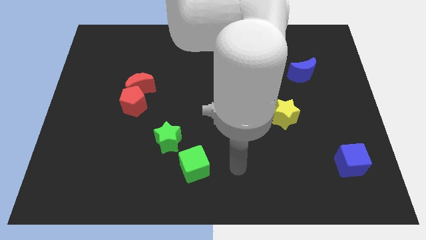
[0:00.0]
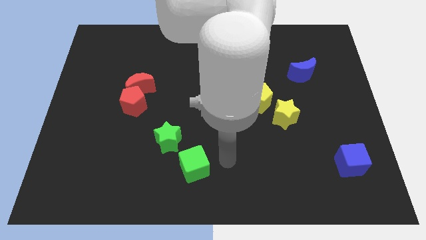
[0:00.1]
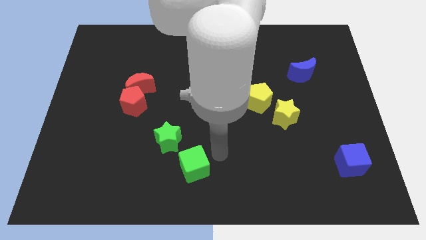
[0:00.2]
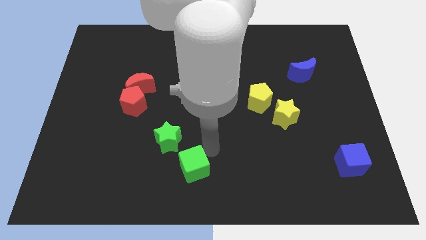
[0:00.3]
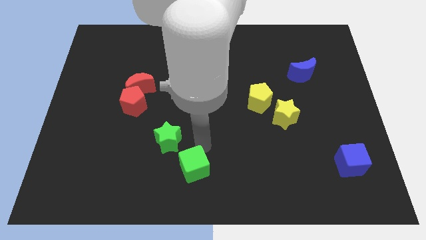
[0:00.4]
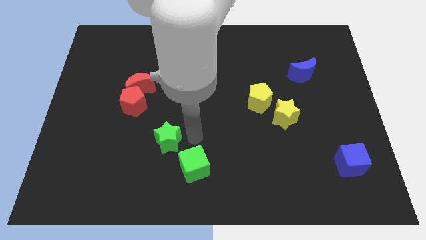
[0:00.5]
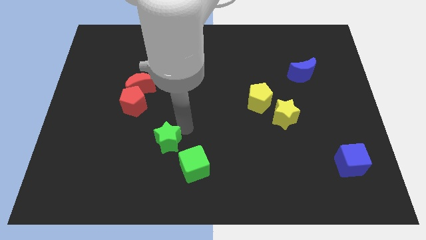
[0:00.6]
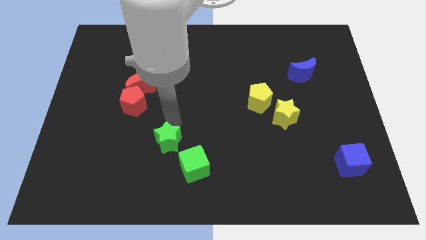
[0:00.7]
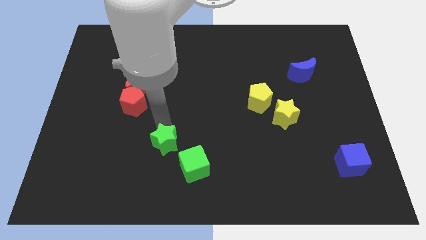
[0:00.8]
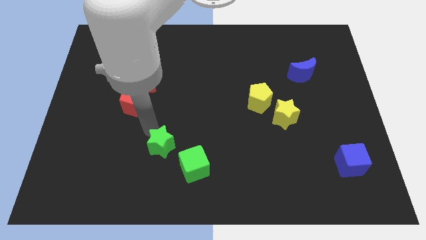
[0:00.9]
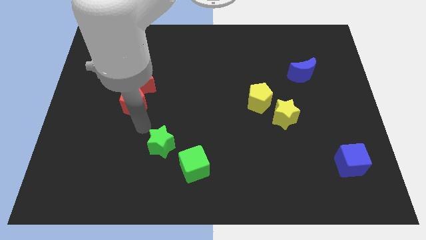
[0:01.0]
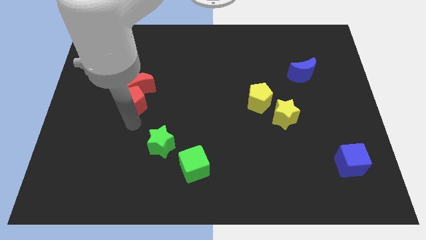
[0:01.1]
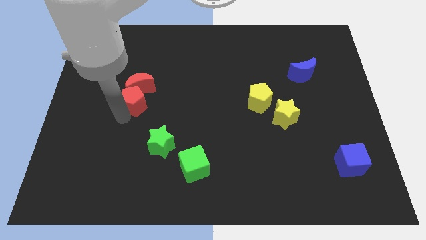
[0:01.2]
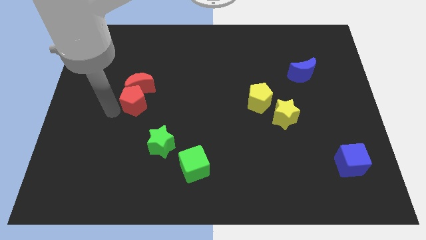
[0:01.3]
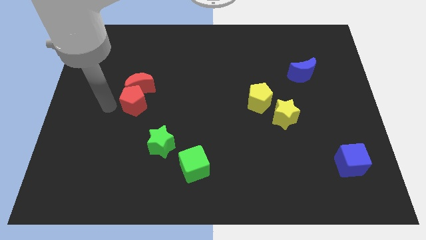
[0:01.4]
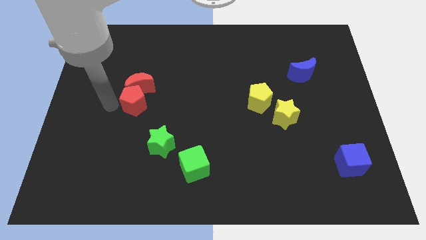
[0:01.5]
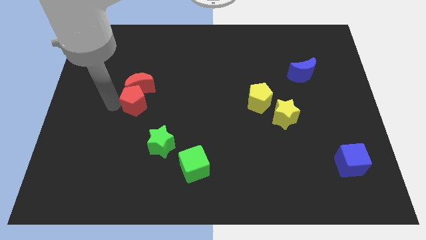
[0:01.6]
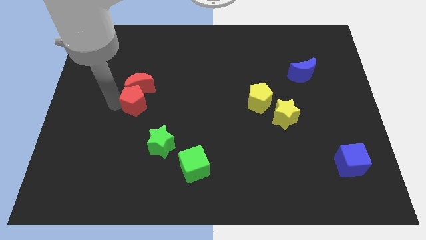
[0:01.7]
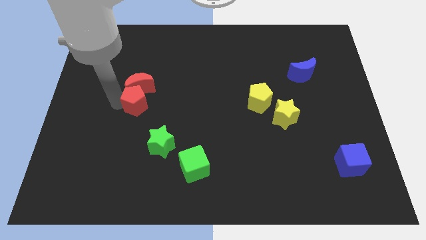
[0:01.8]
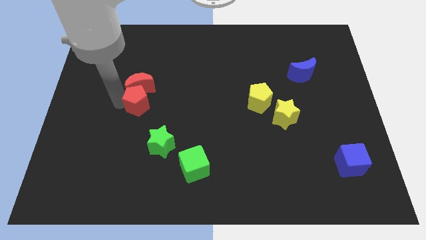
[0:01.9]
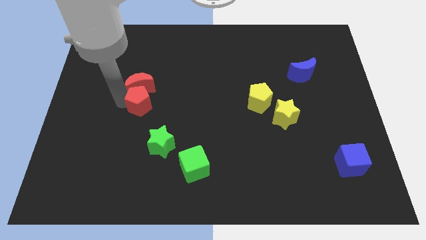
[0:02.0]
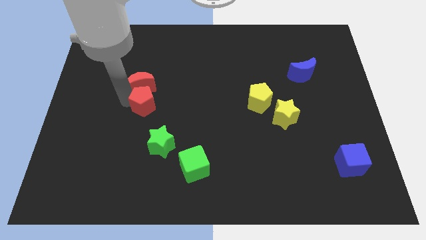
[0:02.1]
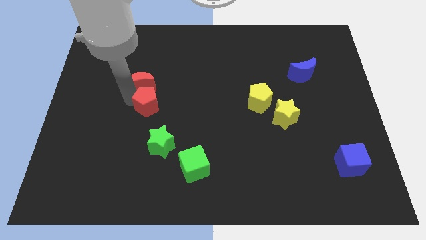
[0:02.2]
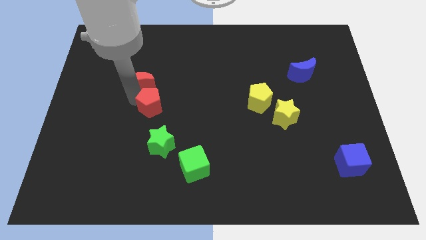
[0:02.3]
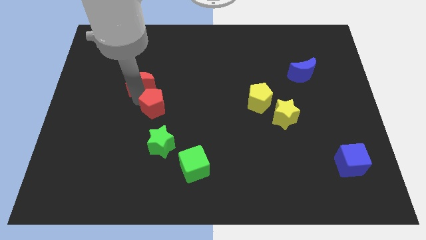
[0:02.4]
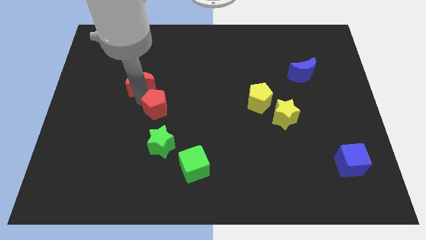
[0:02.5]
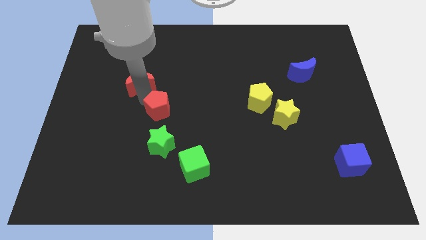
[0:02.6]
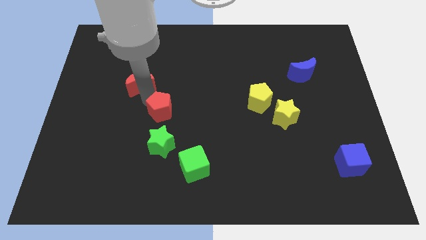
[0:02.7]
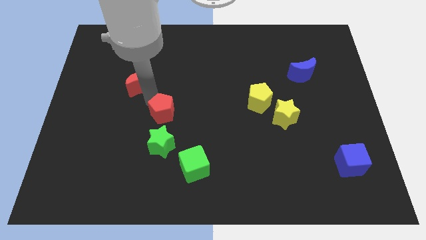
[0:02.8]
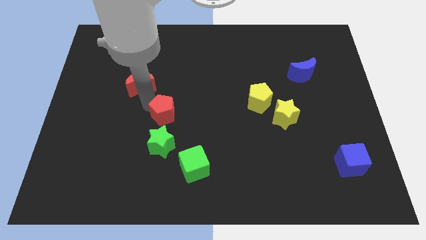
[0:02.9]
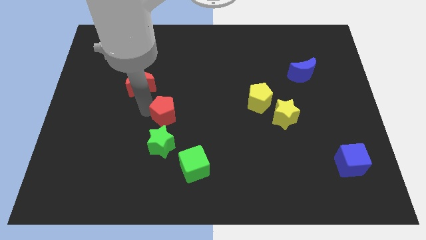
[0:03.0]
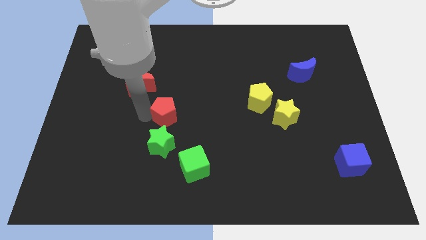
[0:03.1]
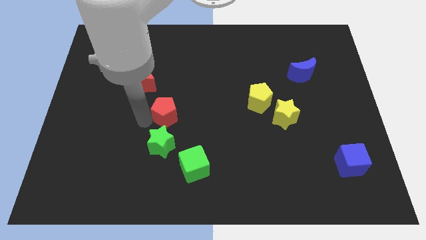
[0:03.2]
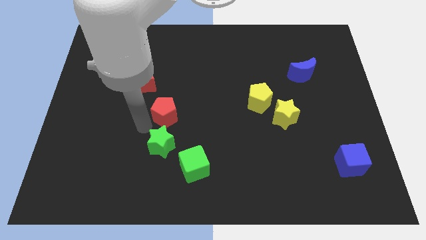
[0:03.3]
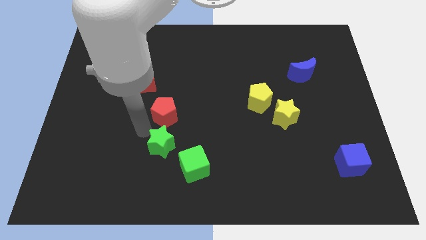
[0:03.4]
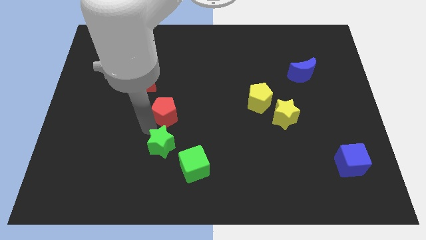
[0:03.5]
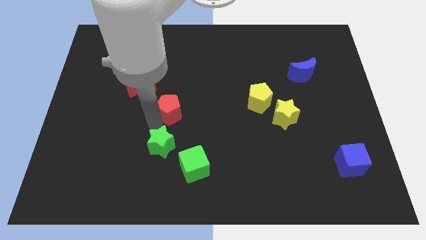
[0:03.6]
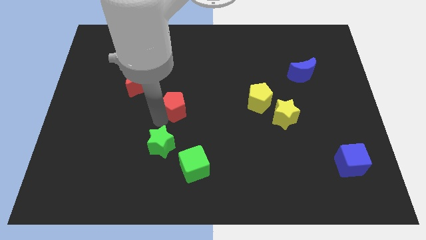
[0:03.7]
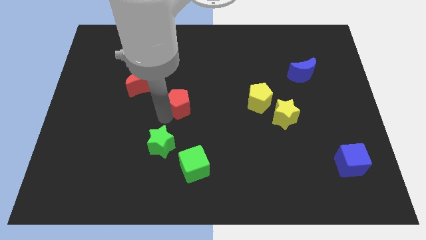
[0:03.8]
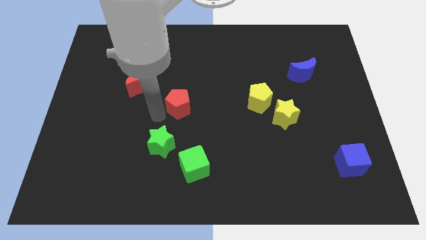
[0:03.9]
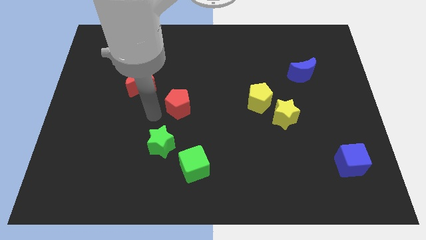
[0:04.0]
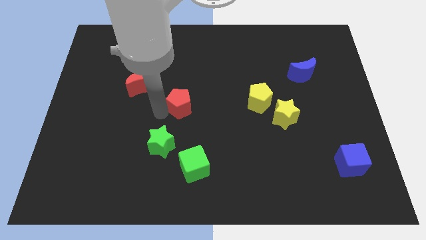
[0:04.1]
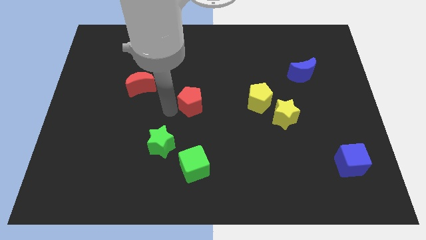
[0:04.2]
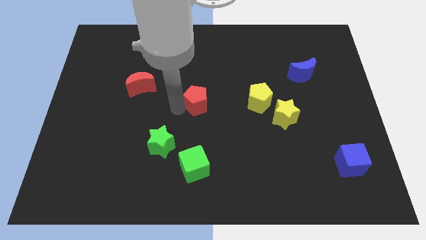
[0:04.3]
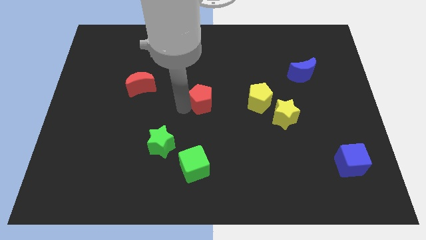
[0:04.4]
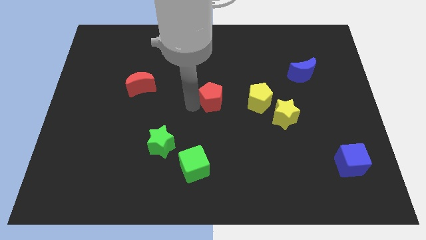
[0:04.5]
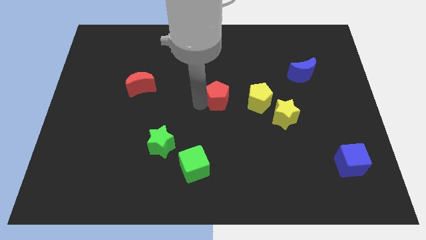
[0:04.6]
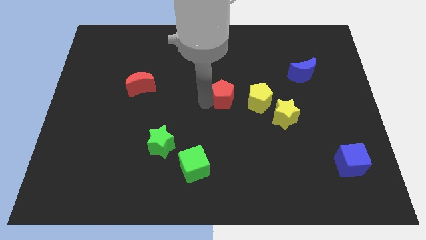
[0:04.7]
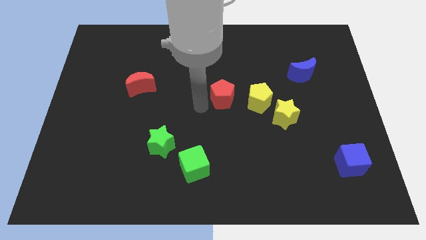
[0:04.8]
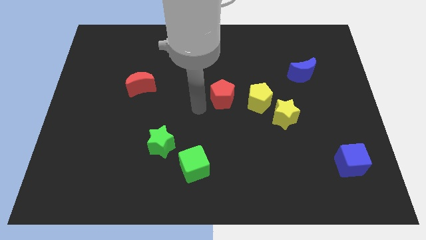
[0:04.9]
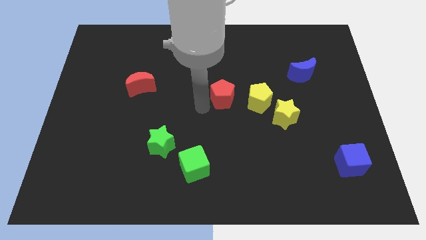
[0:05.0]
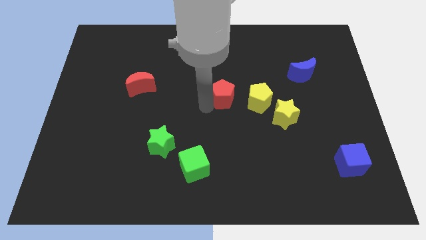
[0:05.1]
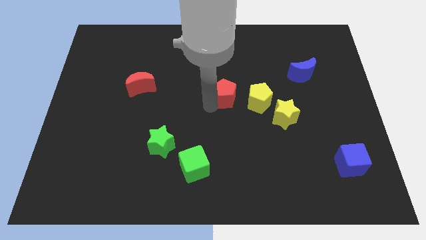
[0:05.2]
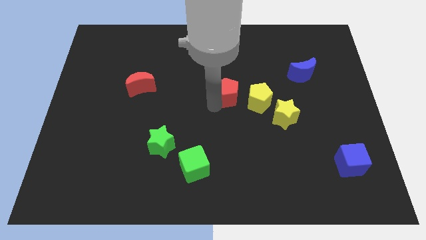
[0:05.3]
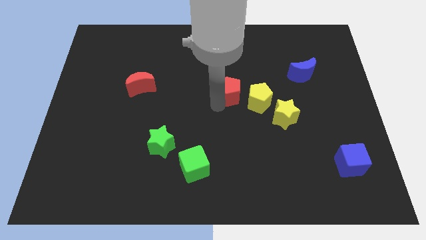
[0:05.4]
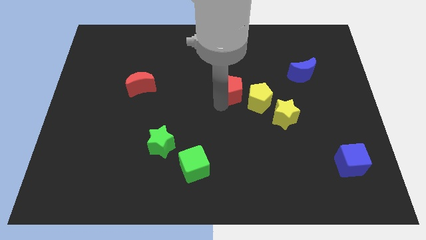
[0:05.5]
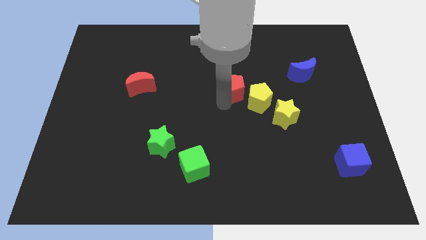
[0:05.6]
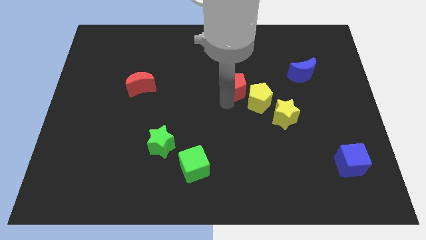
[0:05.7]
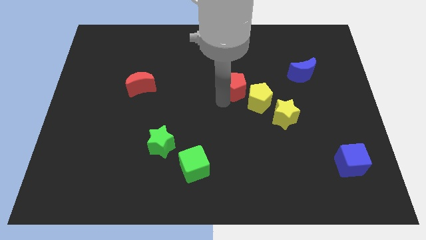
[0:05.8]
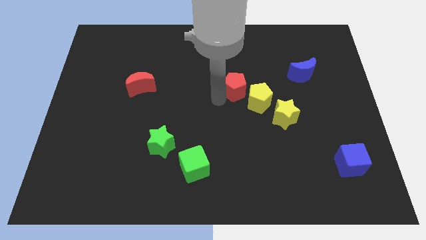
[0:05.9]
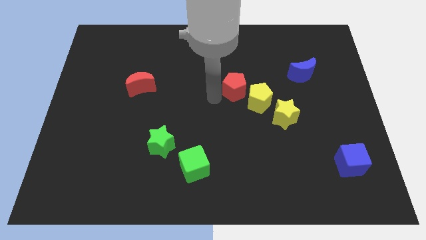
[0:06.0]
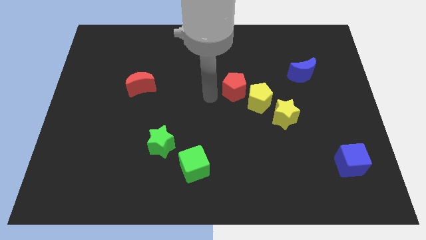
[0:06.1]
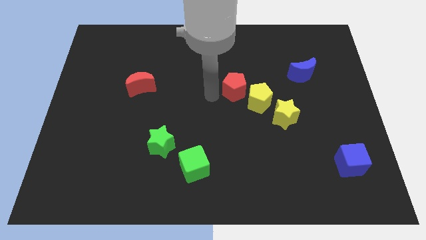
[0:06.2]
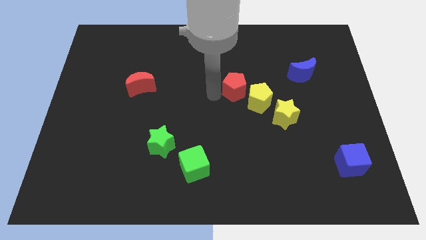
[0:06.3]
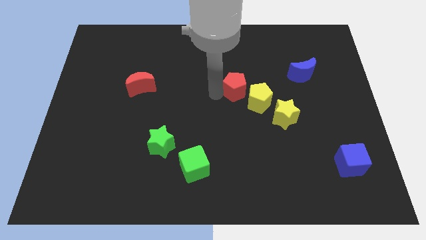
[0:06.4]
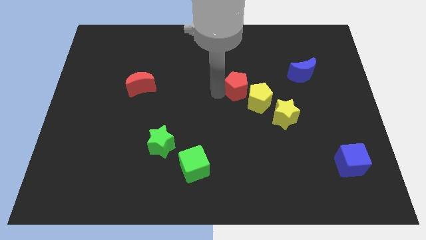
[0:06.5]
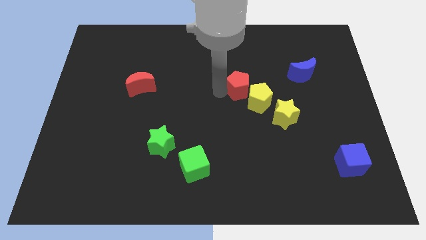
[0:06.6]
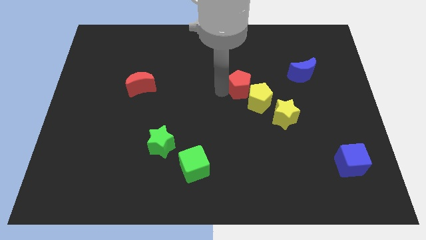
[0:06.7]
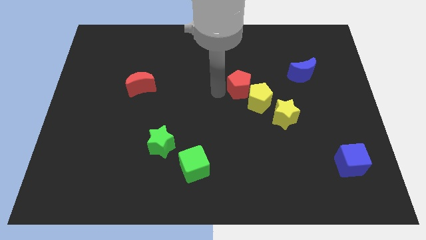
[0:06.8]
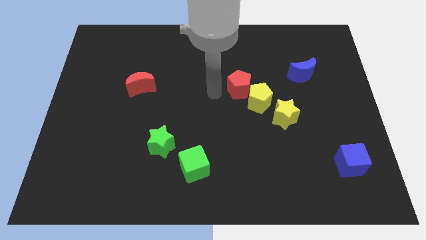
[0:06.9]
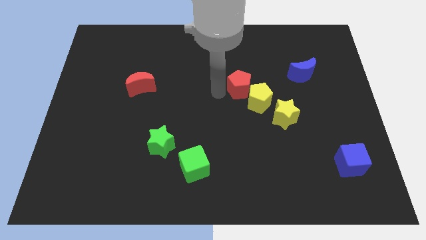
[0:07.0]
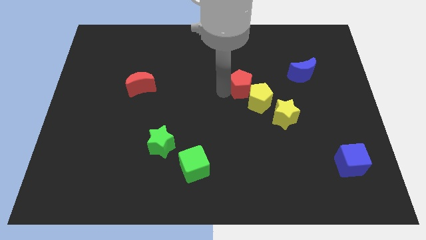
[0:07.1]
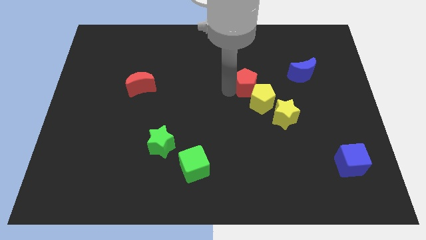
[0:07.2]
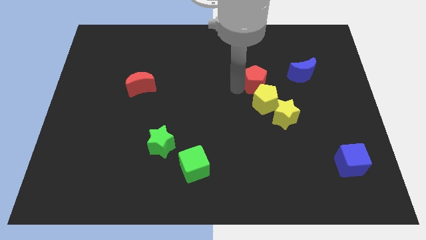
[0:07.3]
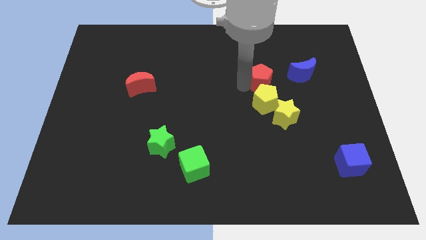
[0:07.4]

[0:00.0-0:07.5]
put the red pentagon to the top right side of the yellow pentagon

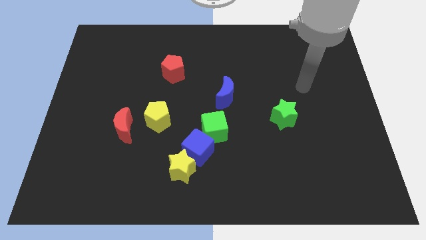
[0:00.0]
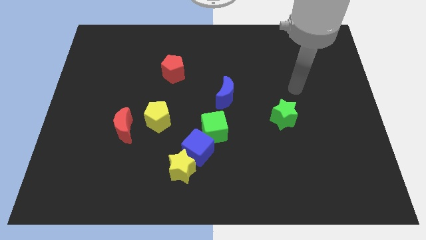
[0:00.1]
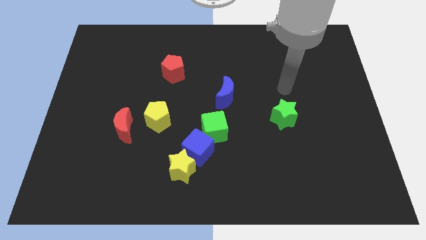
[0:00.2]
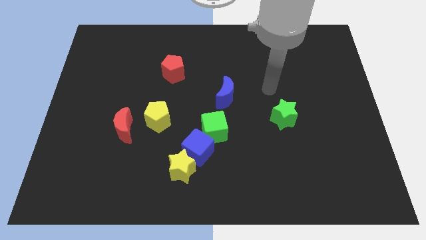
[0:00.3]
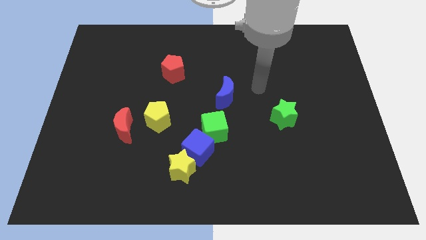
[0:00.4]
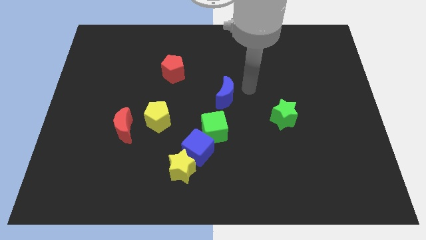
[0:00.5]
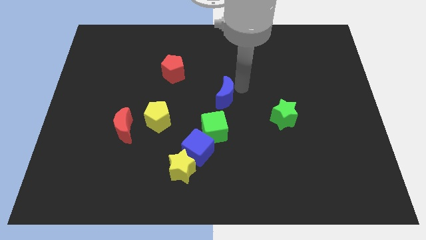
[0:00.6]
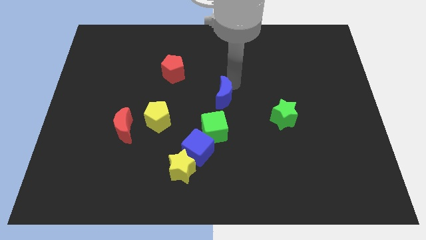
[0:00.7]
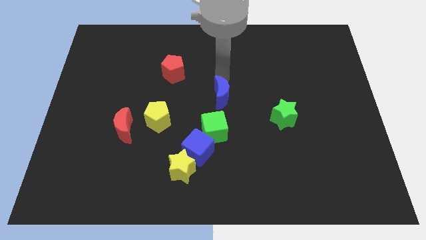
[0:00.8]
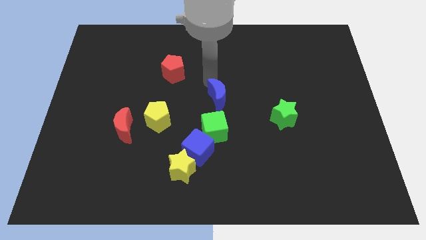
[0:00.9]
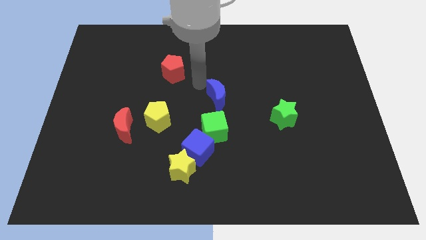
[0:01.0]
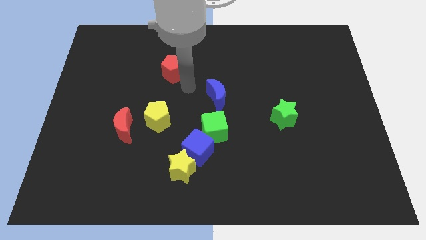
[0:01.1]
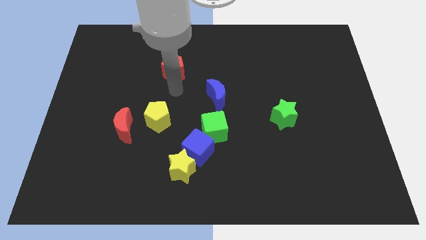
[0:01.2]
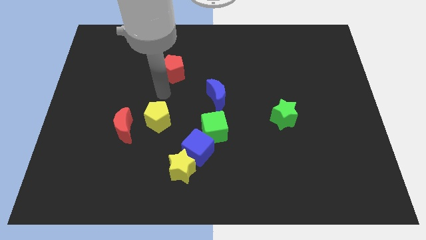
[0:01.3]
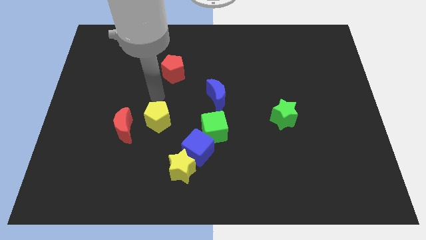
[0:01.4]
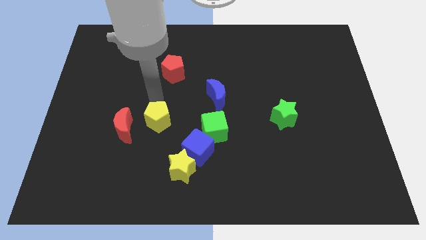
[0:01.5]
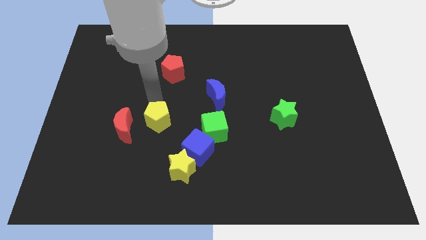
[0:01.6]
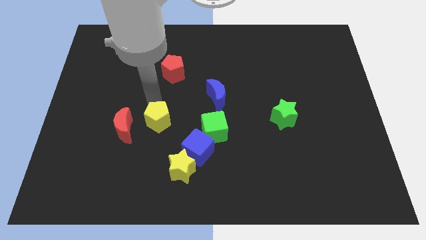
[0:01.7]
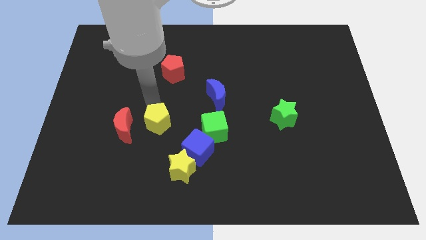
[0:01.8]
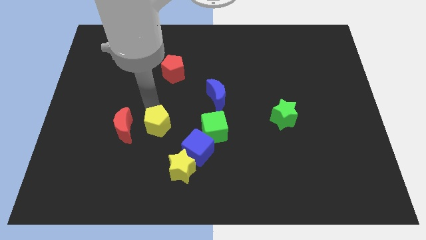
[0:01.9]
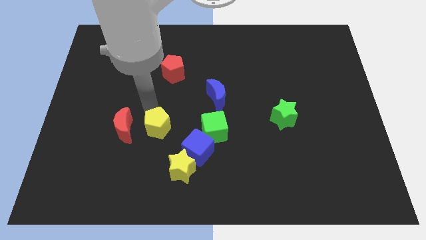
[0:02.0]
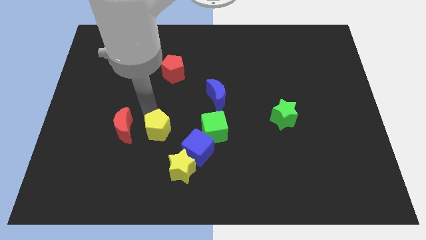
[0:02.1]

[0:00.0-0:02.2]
put the yellow pentagon to the top left side of the yellow star
